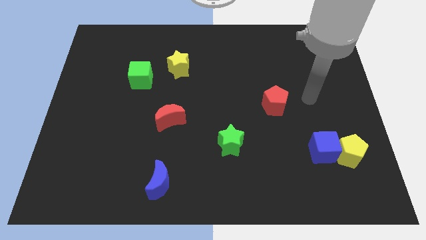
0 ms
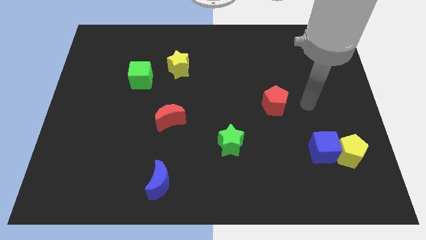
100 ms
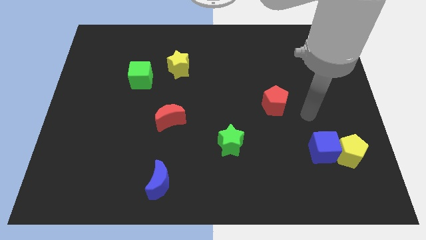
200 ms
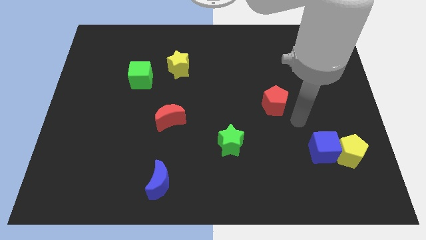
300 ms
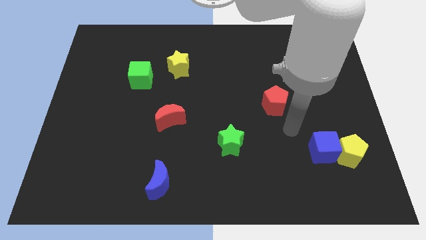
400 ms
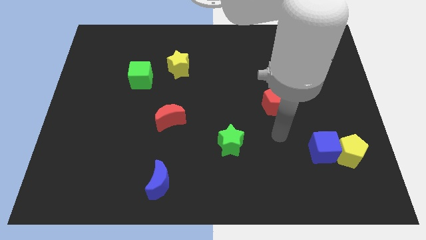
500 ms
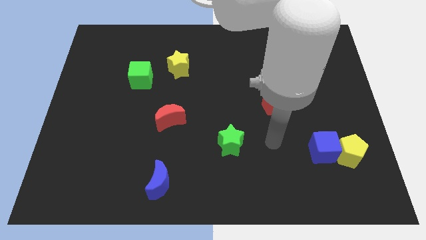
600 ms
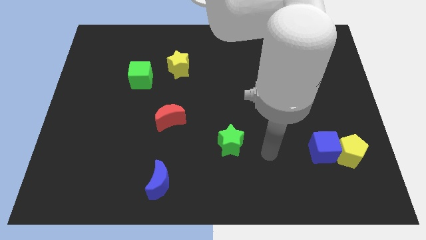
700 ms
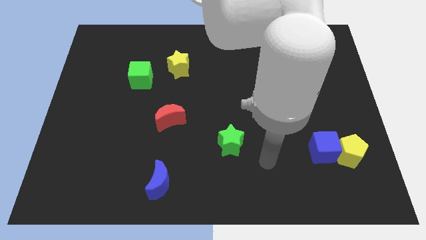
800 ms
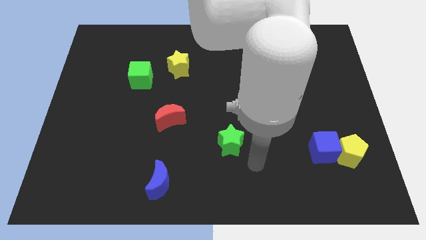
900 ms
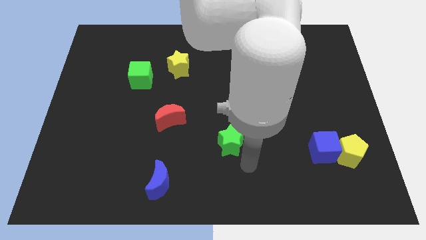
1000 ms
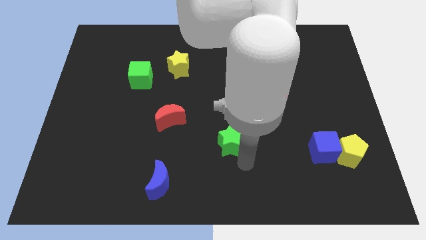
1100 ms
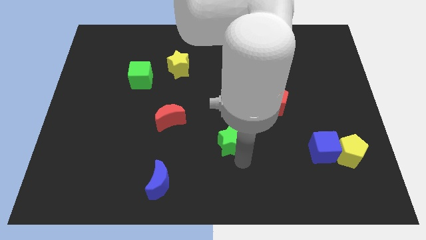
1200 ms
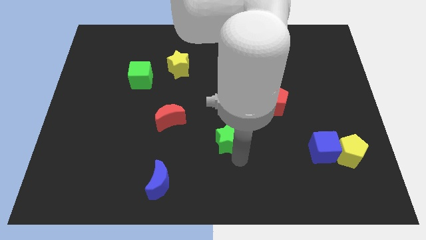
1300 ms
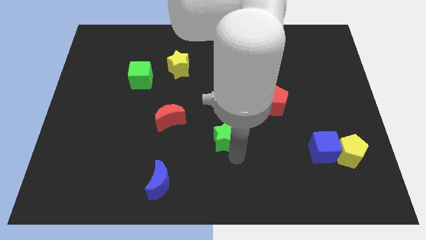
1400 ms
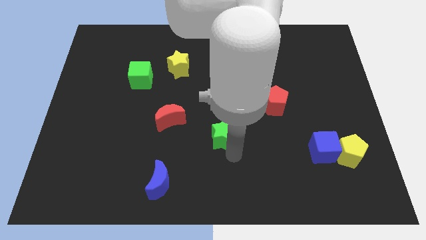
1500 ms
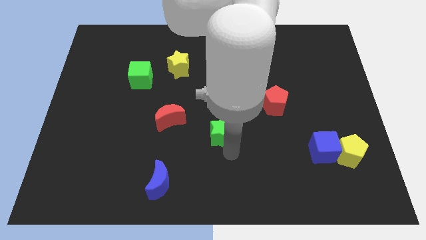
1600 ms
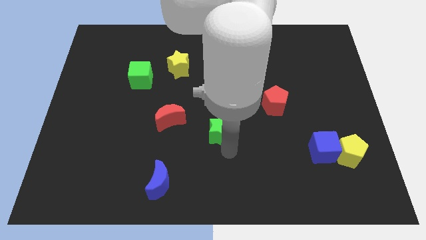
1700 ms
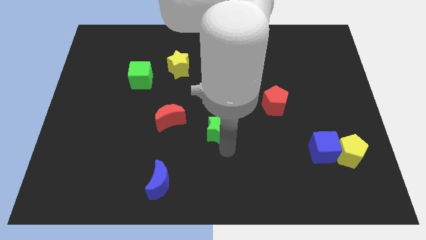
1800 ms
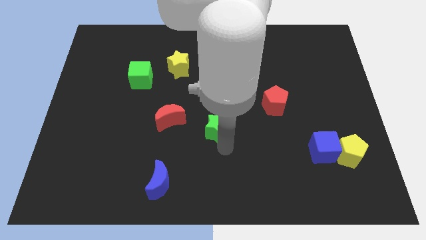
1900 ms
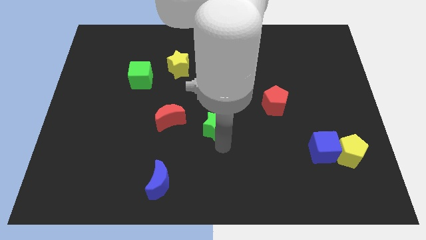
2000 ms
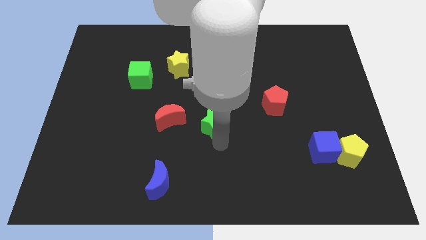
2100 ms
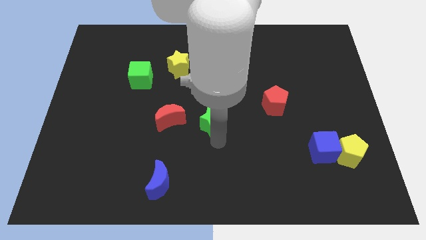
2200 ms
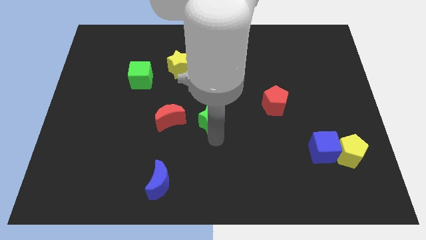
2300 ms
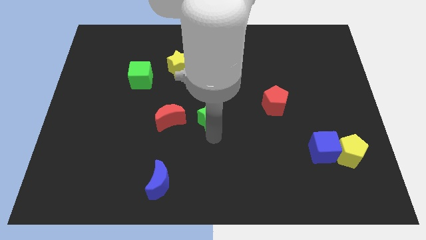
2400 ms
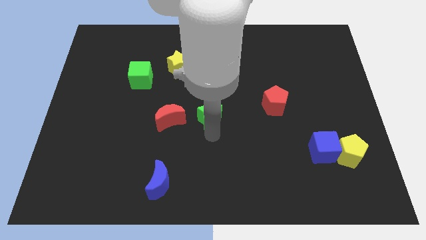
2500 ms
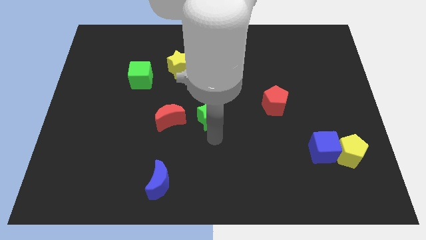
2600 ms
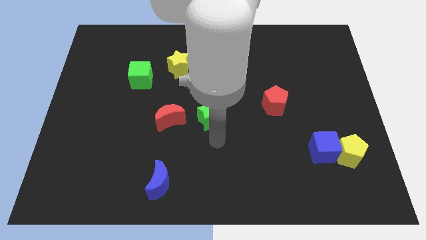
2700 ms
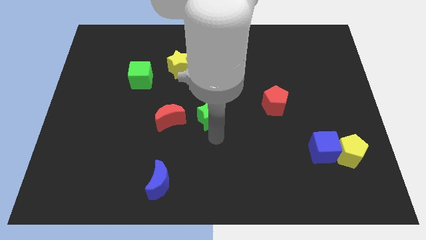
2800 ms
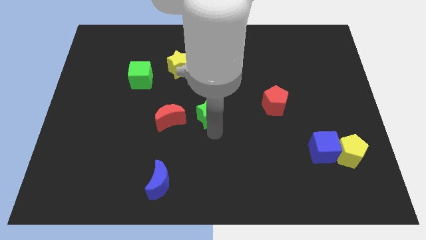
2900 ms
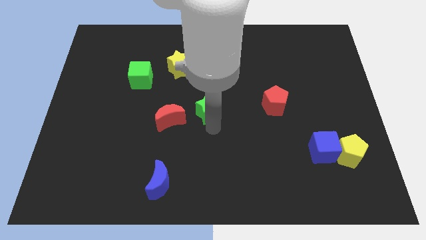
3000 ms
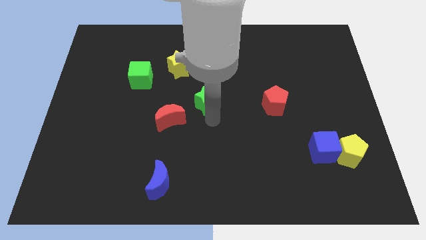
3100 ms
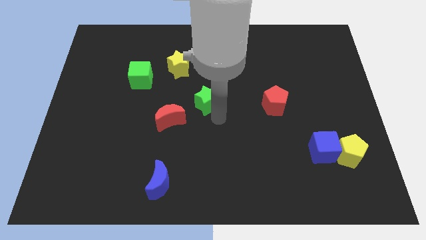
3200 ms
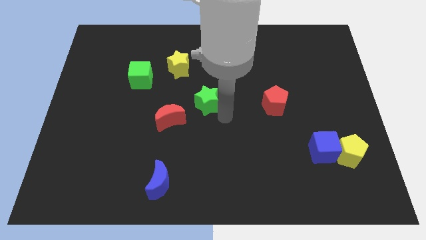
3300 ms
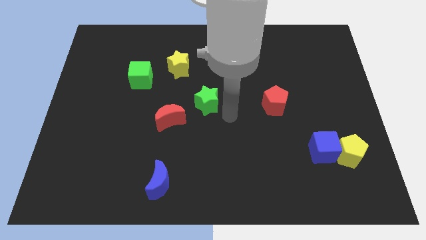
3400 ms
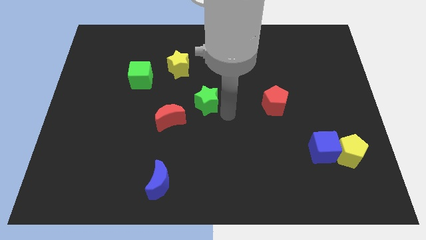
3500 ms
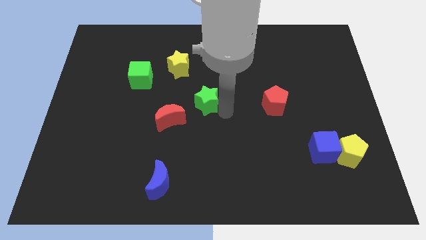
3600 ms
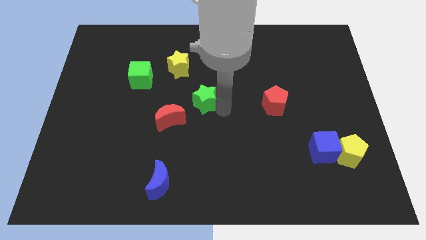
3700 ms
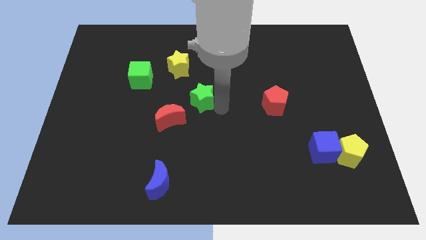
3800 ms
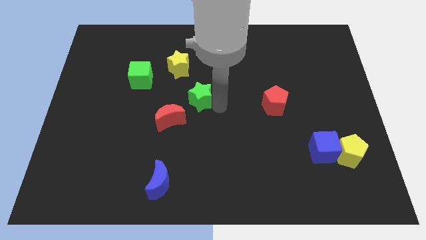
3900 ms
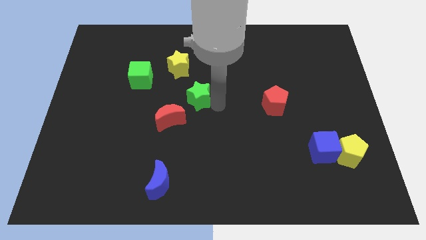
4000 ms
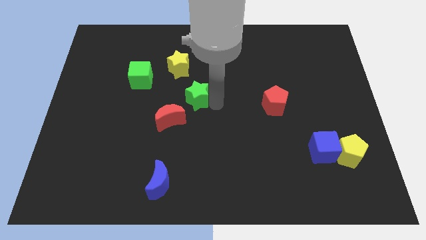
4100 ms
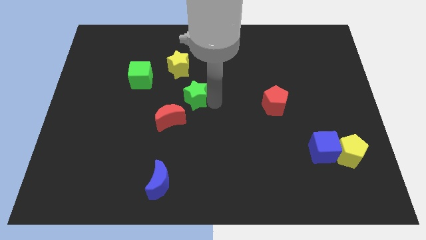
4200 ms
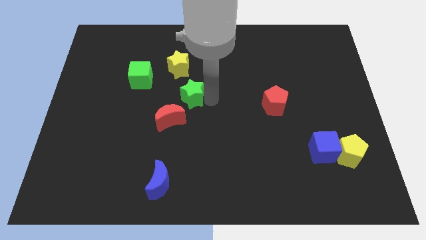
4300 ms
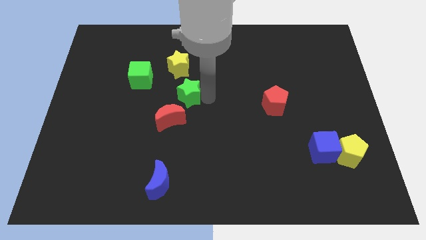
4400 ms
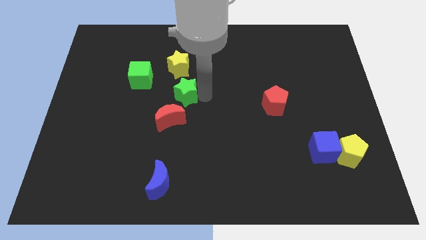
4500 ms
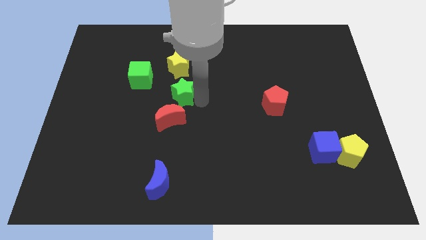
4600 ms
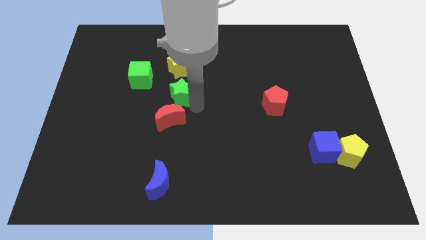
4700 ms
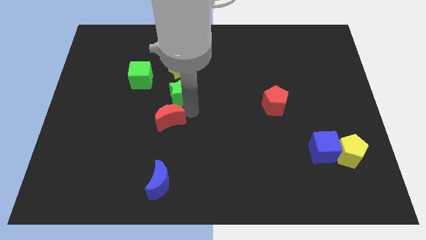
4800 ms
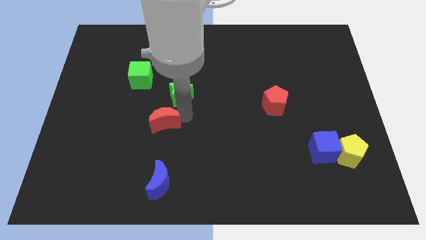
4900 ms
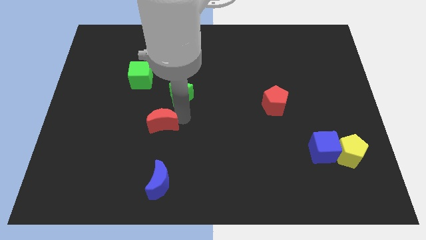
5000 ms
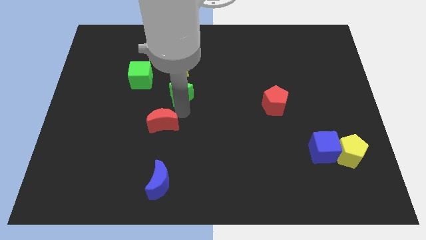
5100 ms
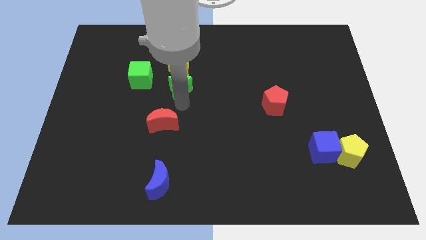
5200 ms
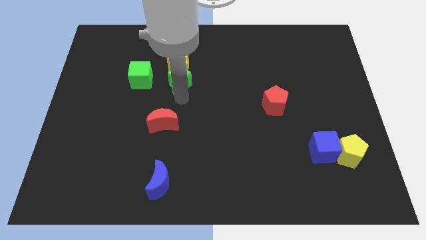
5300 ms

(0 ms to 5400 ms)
slide the green star close to the yellow star

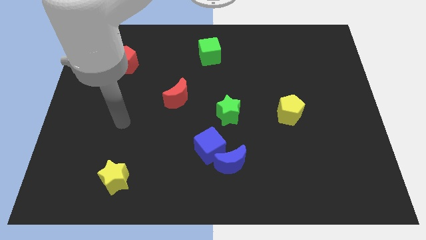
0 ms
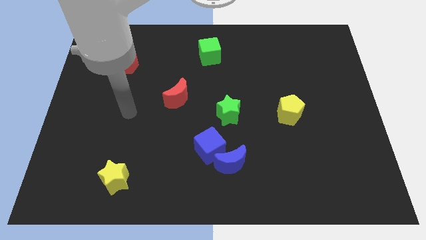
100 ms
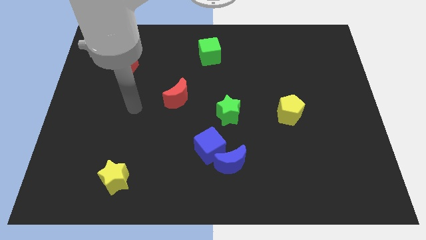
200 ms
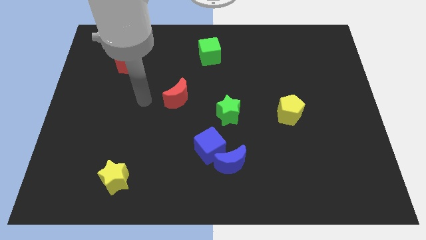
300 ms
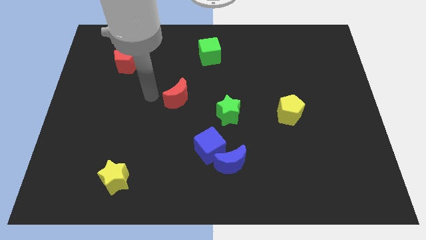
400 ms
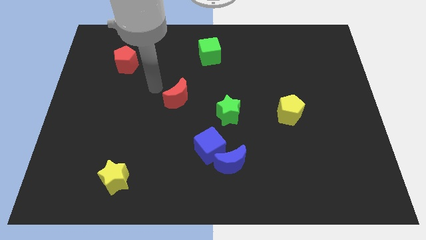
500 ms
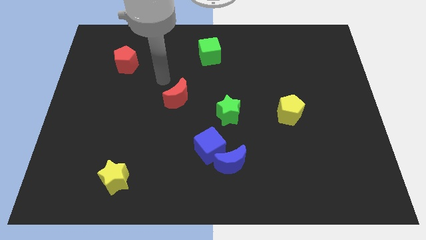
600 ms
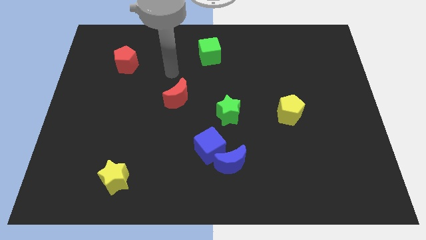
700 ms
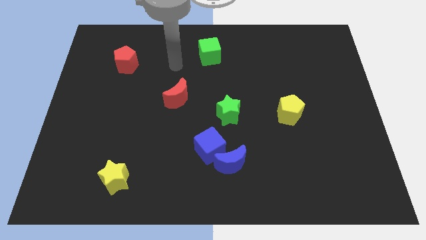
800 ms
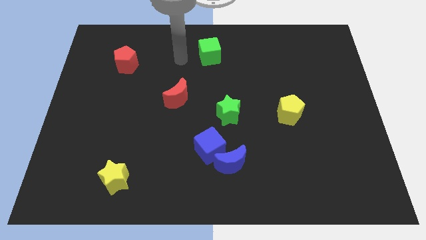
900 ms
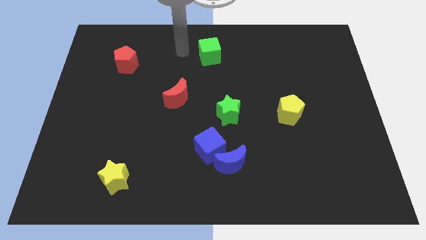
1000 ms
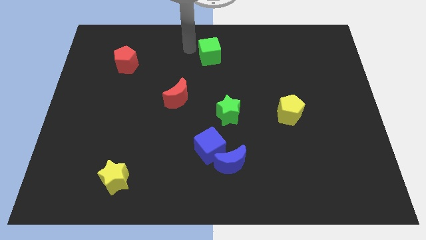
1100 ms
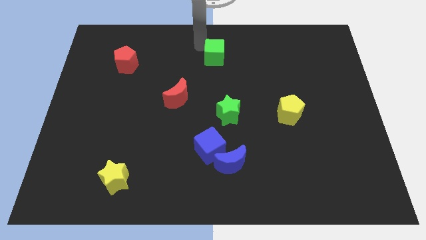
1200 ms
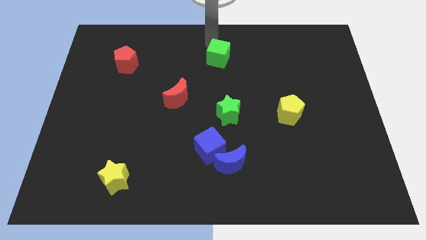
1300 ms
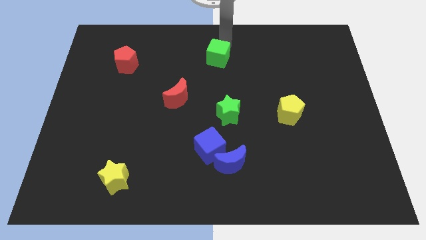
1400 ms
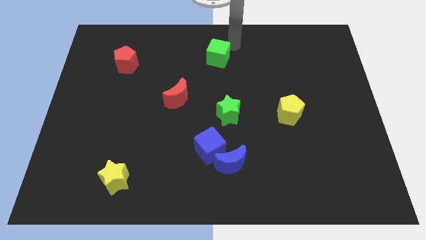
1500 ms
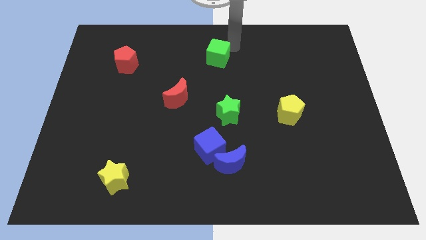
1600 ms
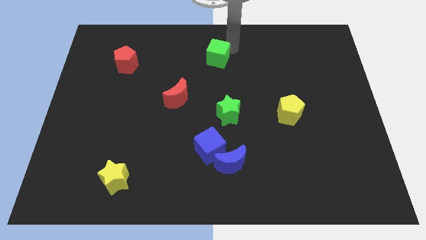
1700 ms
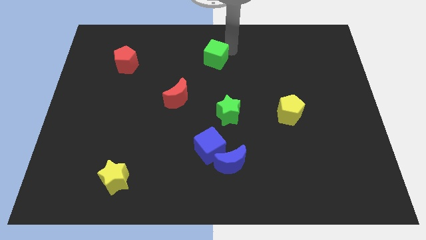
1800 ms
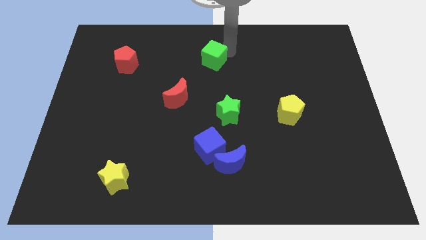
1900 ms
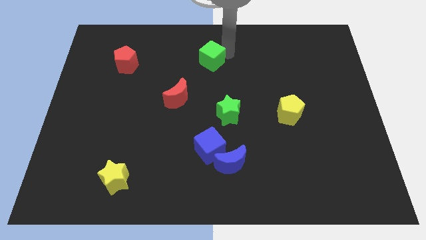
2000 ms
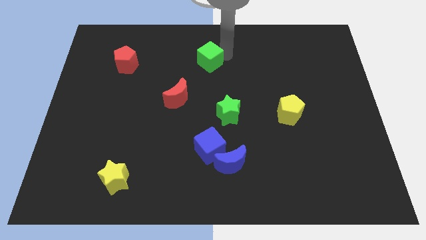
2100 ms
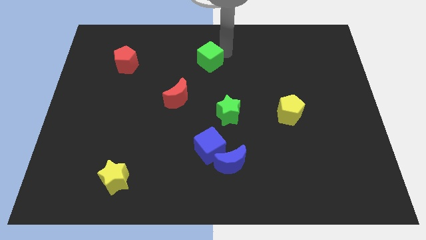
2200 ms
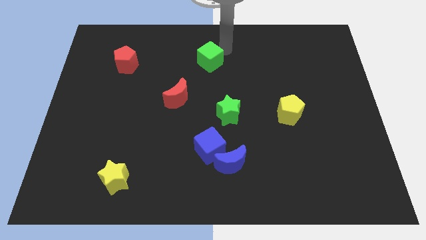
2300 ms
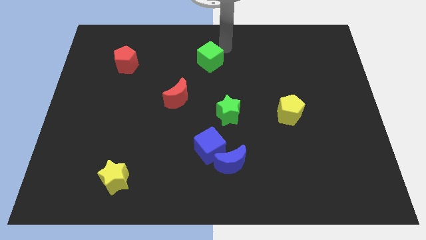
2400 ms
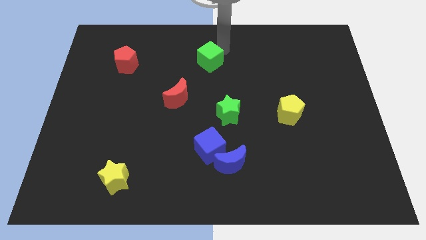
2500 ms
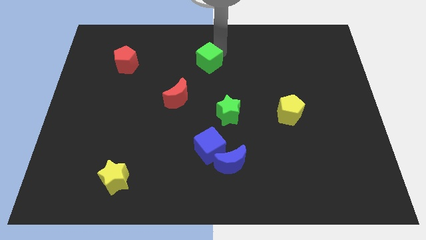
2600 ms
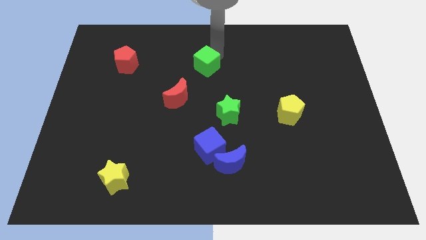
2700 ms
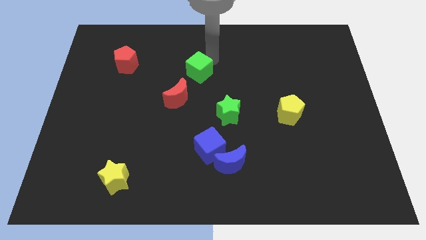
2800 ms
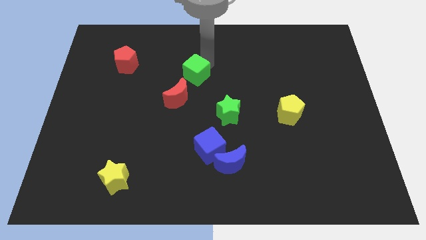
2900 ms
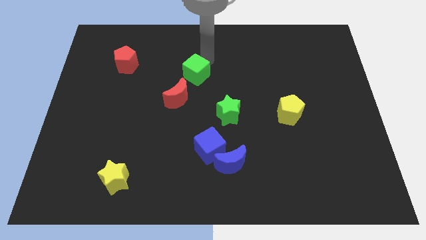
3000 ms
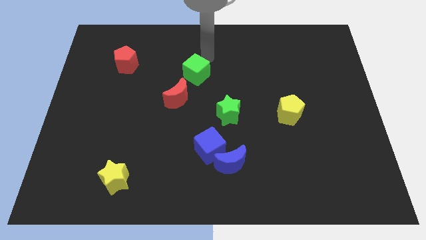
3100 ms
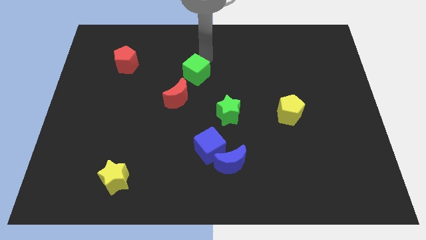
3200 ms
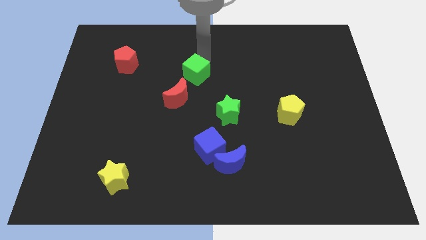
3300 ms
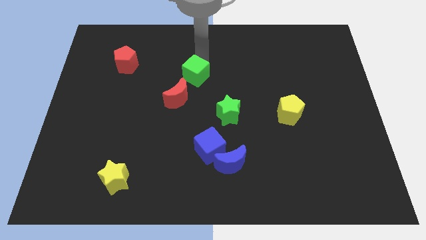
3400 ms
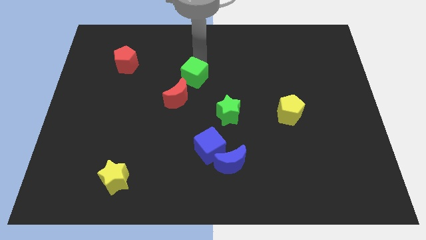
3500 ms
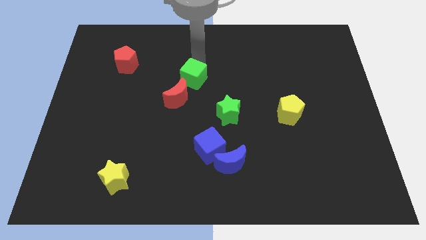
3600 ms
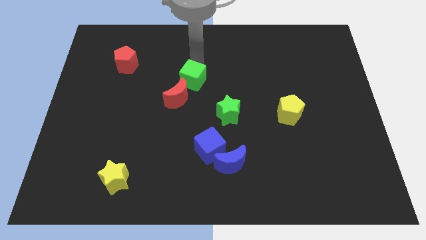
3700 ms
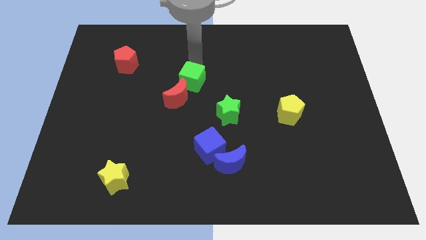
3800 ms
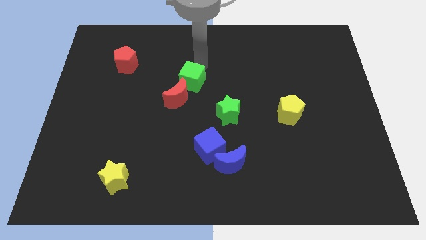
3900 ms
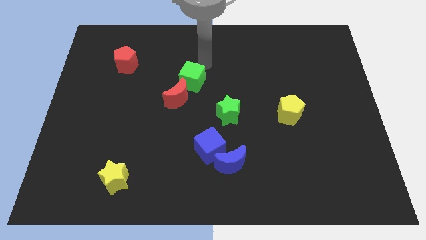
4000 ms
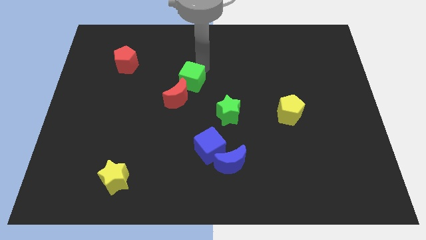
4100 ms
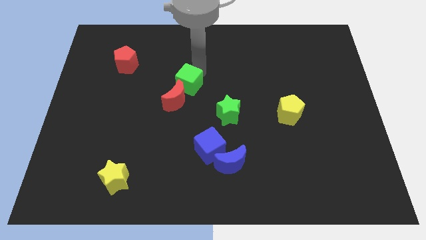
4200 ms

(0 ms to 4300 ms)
move the green cube next to the red moon
